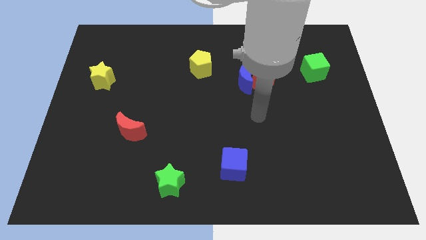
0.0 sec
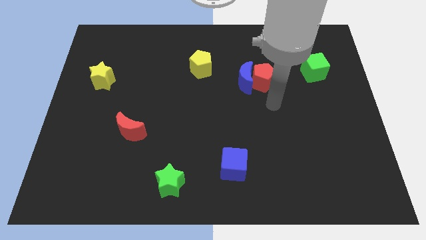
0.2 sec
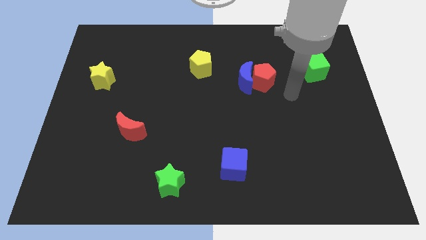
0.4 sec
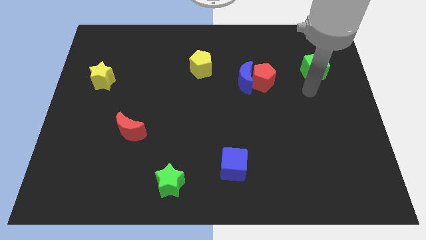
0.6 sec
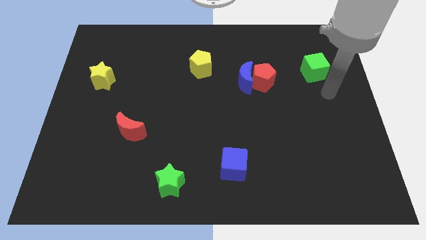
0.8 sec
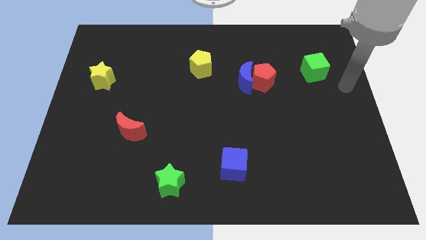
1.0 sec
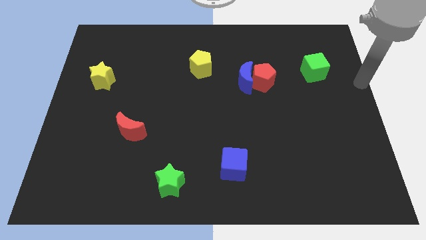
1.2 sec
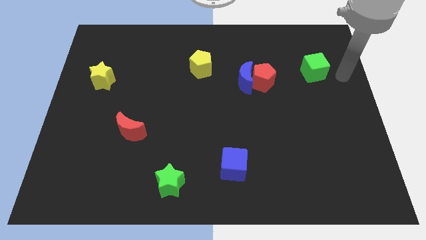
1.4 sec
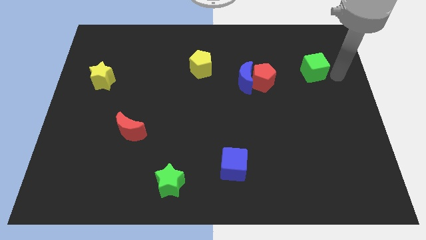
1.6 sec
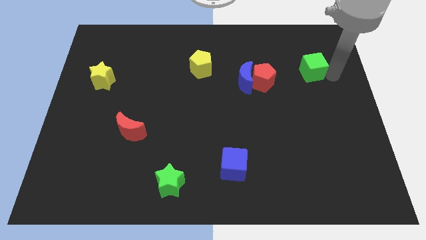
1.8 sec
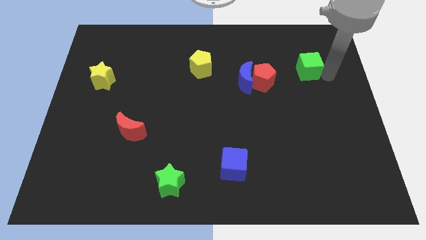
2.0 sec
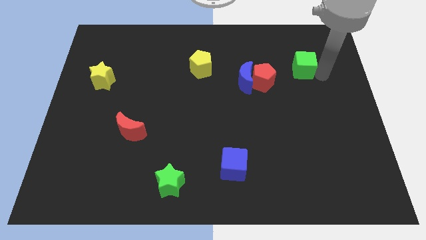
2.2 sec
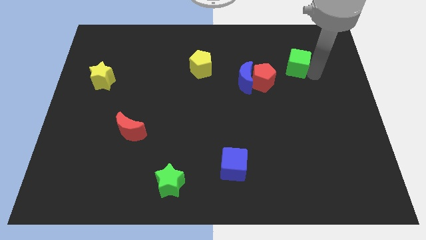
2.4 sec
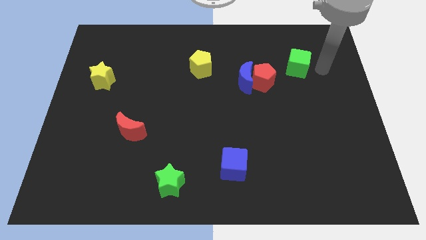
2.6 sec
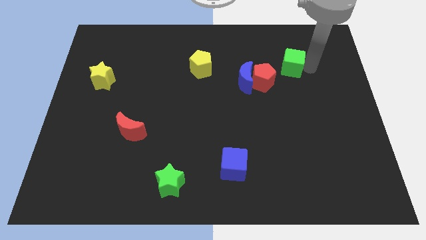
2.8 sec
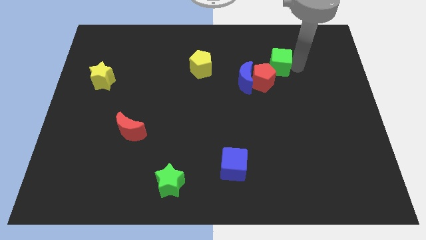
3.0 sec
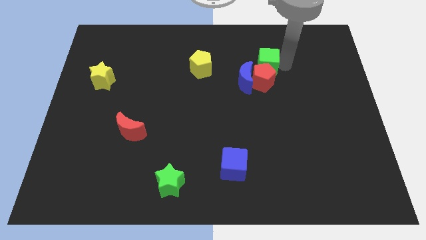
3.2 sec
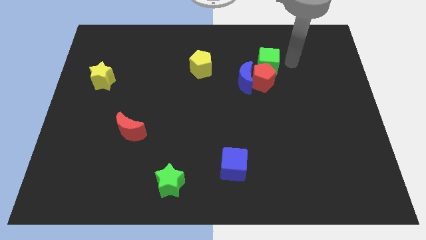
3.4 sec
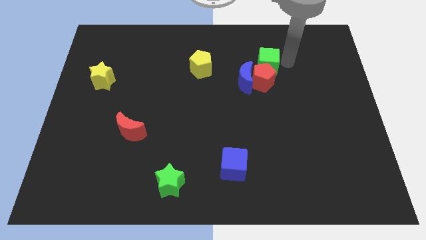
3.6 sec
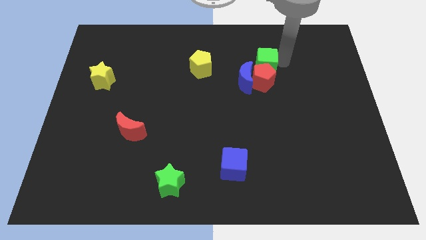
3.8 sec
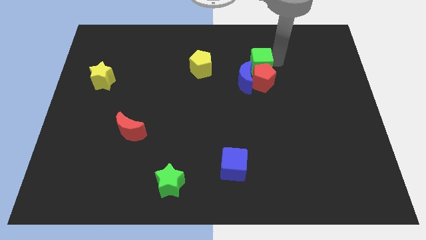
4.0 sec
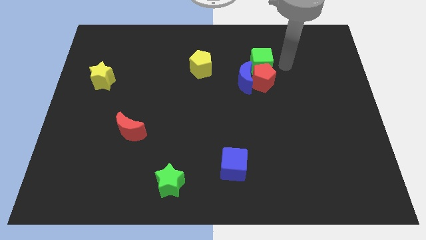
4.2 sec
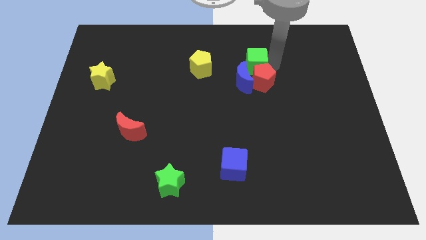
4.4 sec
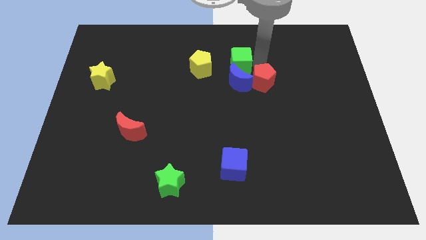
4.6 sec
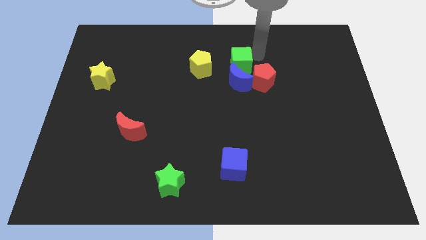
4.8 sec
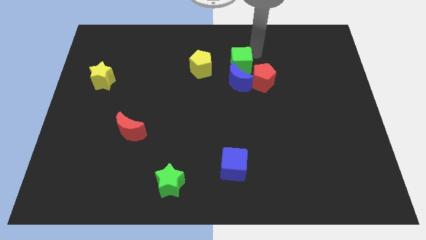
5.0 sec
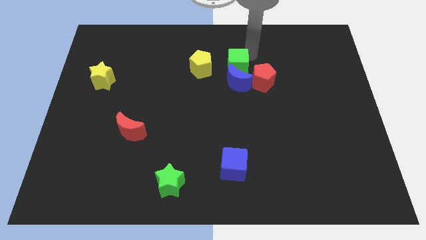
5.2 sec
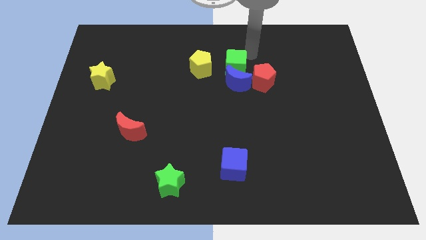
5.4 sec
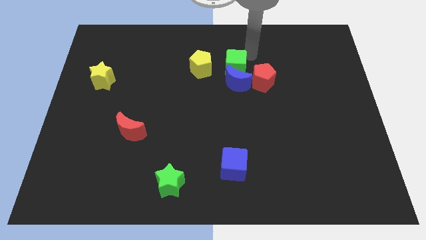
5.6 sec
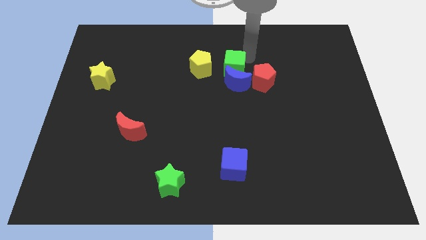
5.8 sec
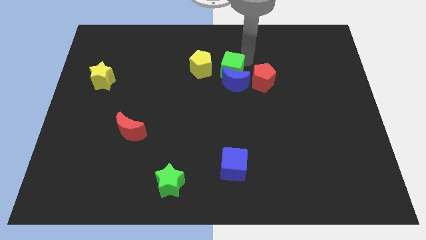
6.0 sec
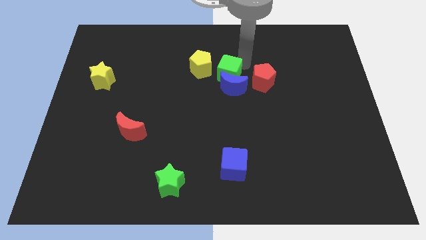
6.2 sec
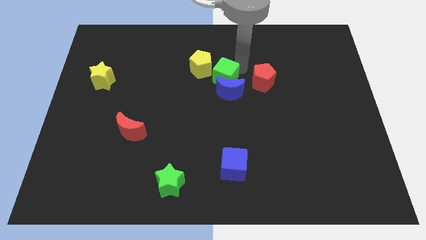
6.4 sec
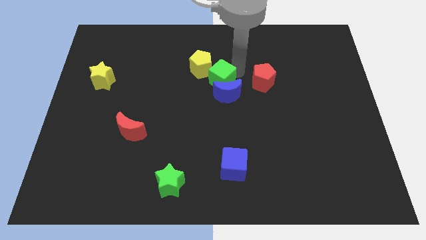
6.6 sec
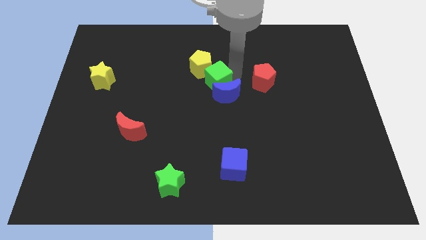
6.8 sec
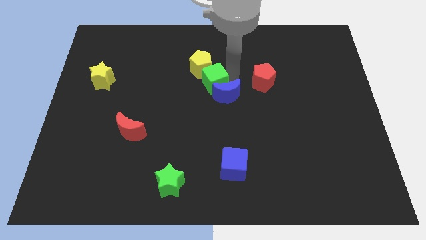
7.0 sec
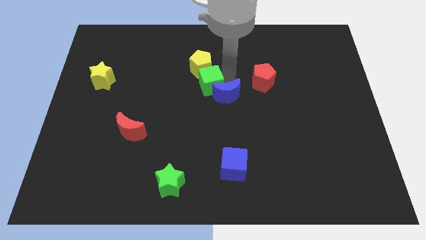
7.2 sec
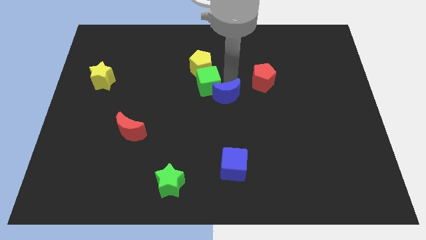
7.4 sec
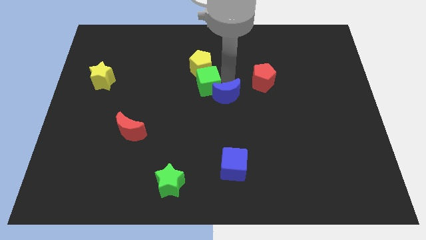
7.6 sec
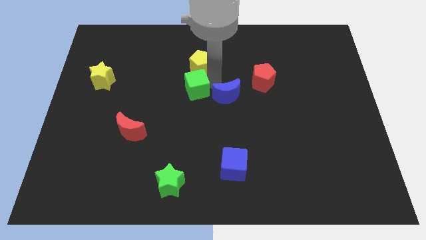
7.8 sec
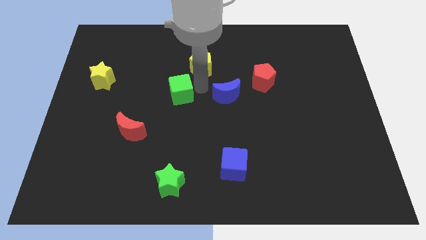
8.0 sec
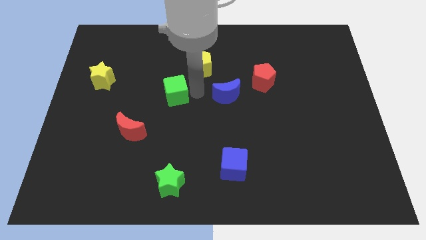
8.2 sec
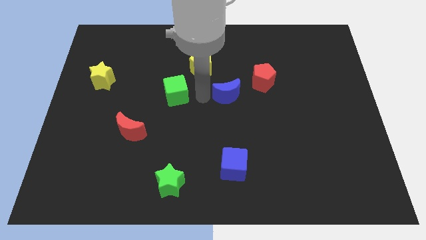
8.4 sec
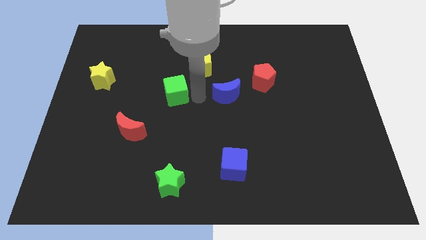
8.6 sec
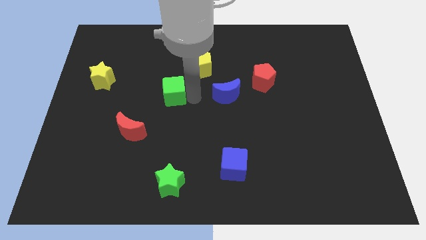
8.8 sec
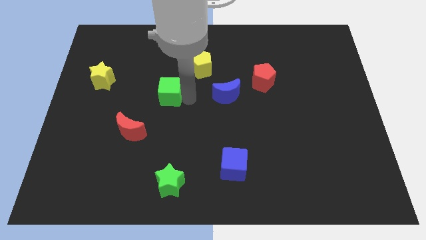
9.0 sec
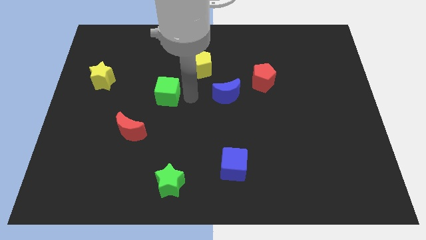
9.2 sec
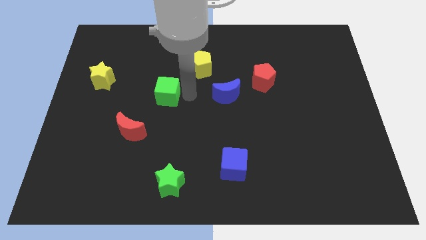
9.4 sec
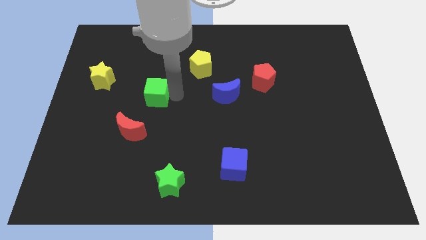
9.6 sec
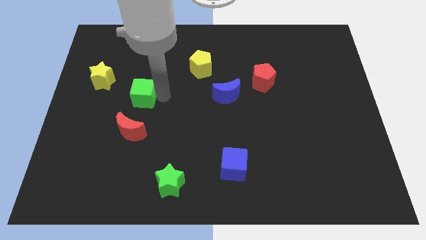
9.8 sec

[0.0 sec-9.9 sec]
put the green cube diagonally down and to the right of the yellow star

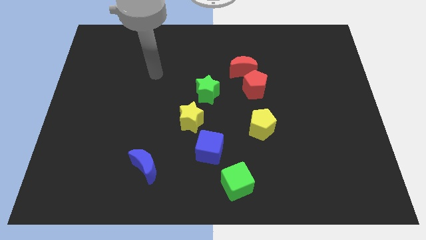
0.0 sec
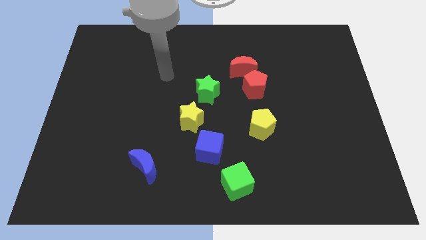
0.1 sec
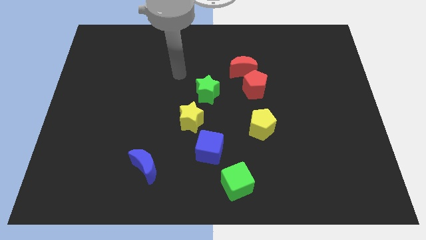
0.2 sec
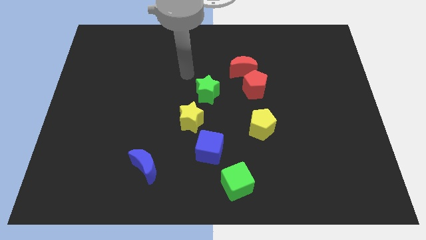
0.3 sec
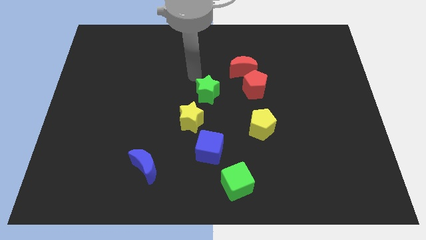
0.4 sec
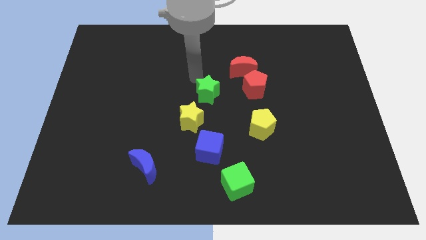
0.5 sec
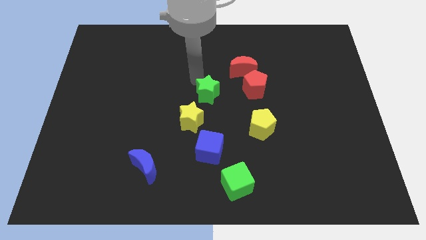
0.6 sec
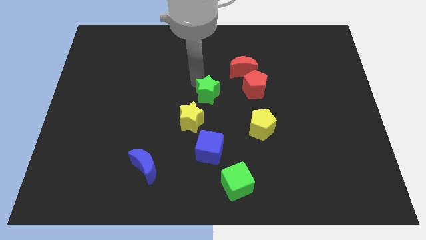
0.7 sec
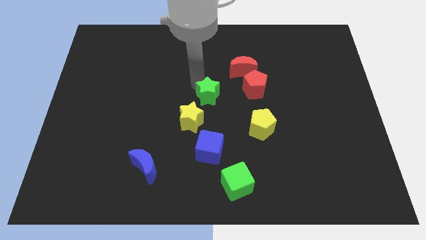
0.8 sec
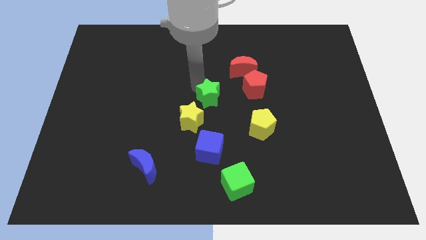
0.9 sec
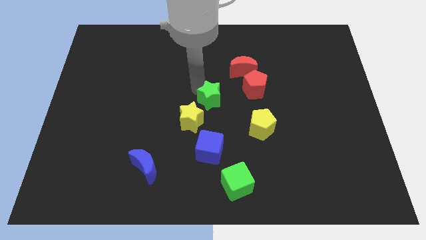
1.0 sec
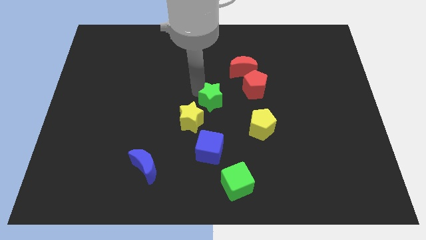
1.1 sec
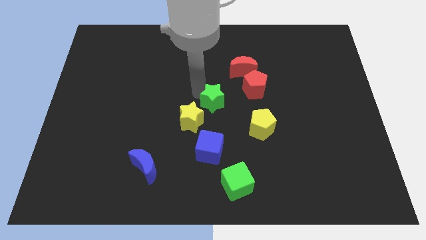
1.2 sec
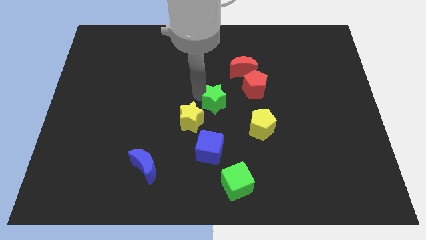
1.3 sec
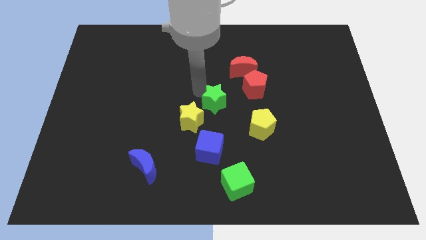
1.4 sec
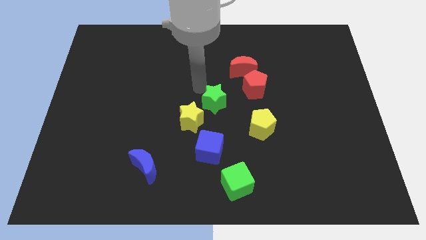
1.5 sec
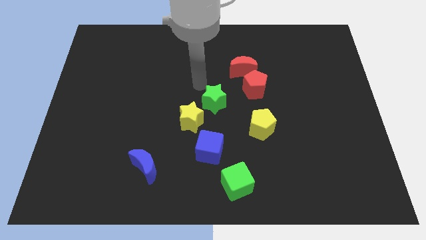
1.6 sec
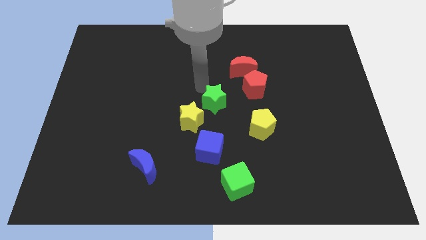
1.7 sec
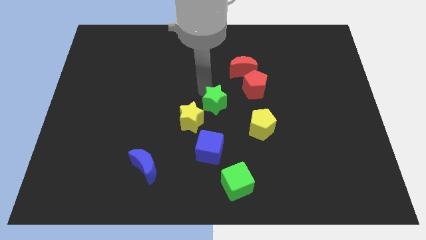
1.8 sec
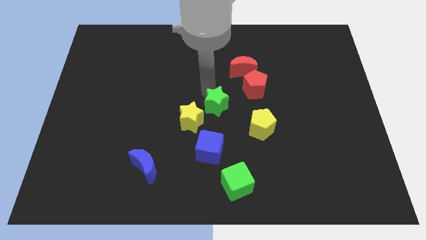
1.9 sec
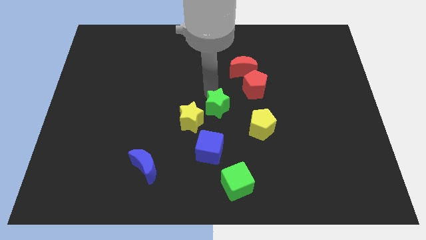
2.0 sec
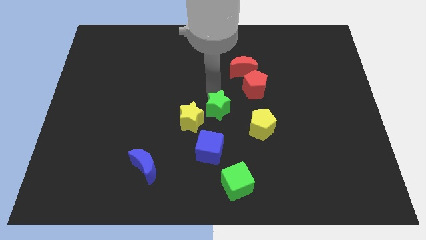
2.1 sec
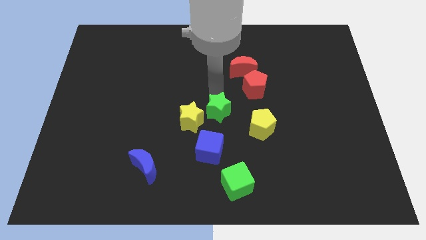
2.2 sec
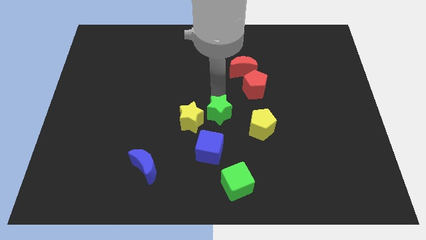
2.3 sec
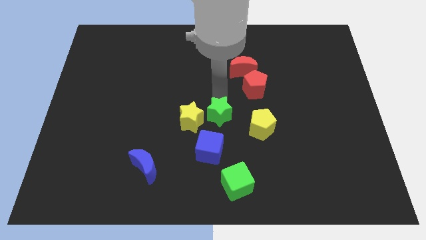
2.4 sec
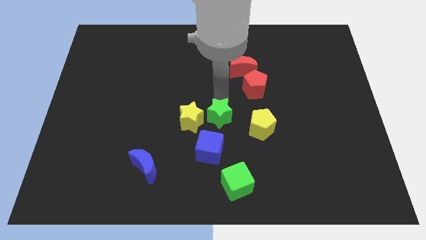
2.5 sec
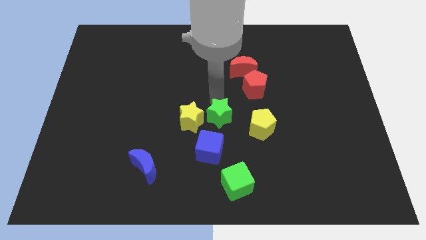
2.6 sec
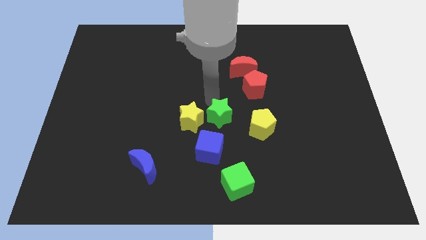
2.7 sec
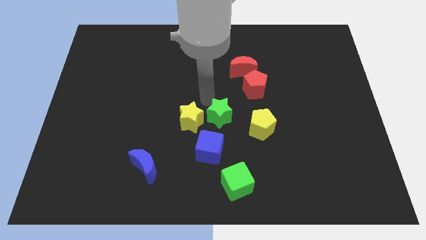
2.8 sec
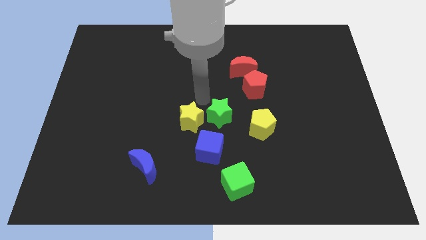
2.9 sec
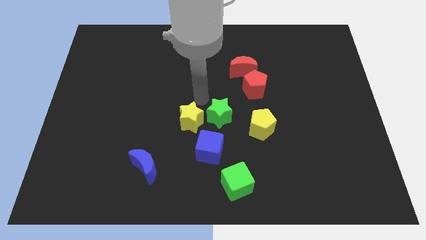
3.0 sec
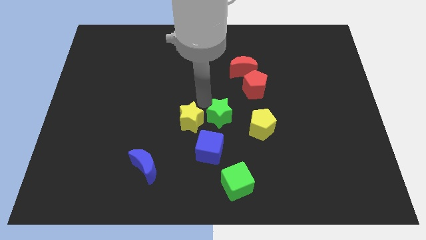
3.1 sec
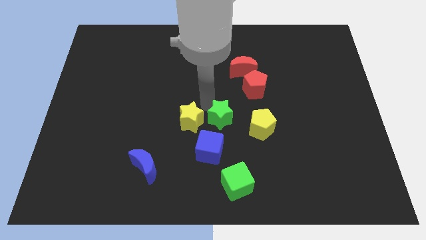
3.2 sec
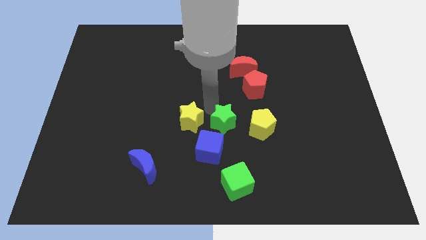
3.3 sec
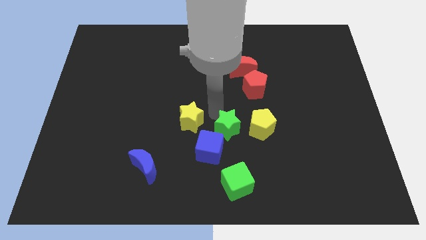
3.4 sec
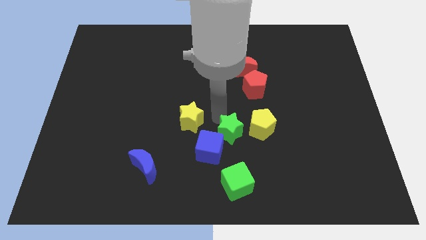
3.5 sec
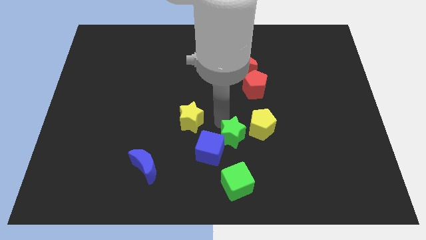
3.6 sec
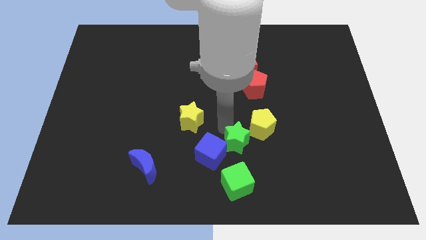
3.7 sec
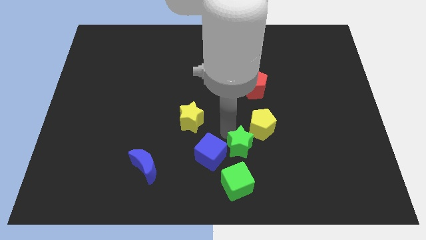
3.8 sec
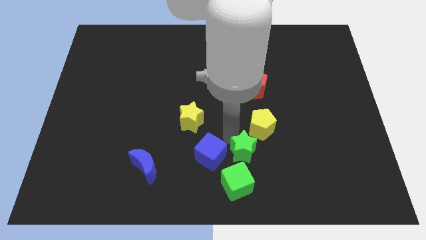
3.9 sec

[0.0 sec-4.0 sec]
push the green star to the bottom side of the yellow pentagon
